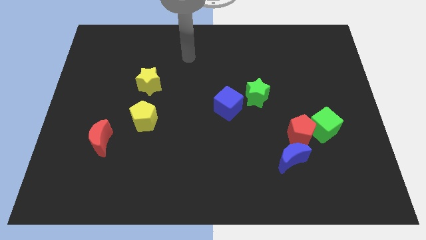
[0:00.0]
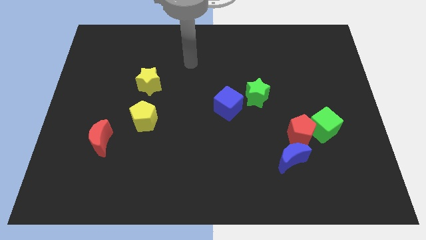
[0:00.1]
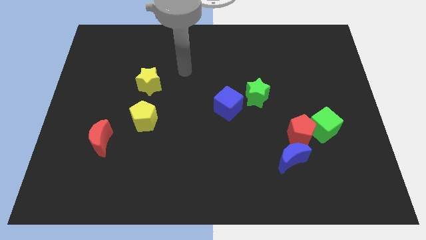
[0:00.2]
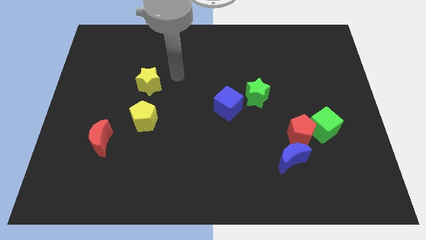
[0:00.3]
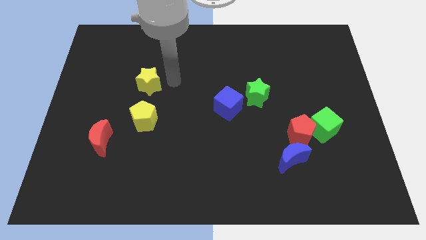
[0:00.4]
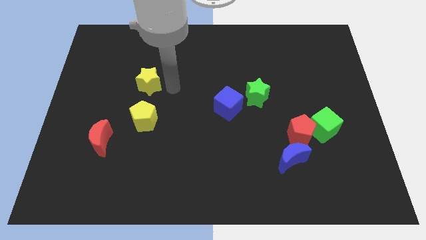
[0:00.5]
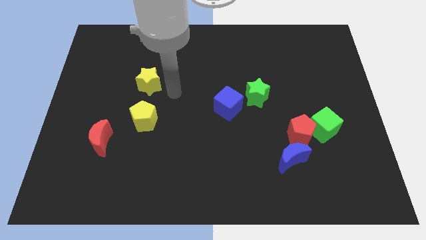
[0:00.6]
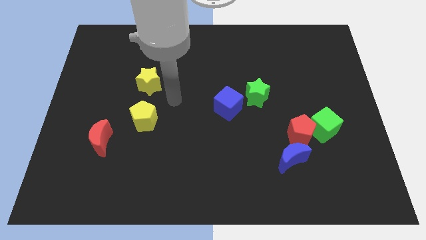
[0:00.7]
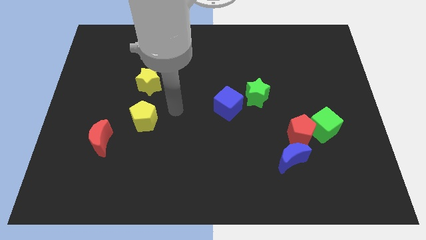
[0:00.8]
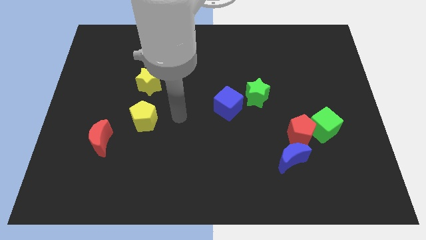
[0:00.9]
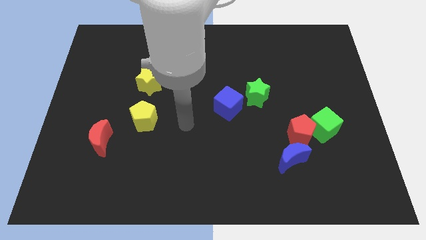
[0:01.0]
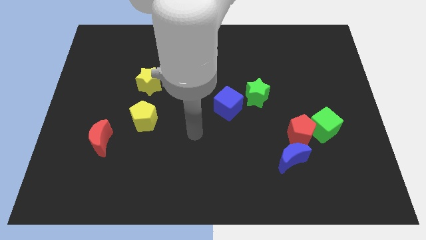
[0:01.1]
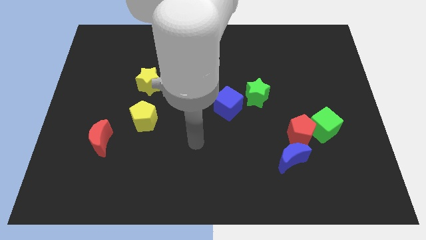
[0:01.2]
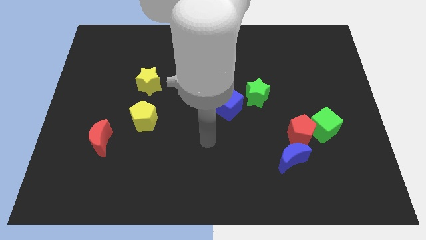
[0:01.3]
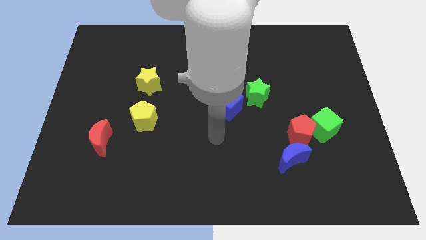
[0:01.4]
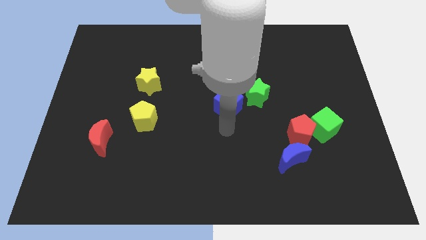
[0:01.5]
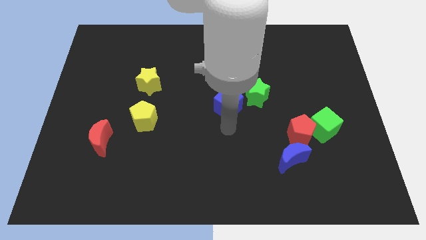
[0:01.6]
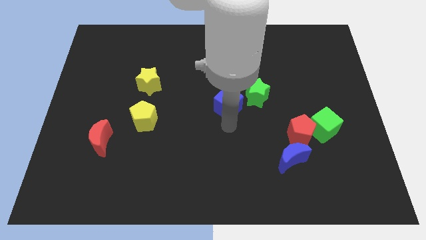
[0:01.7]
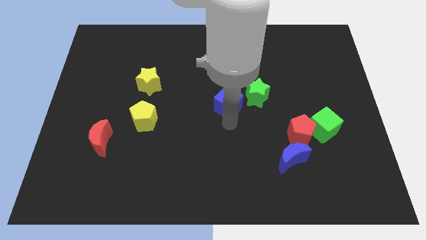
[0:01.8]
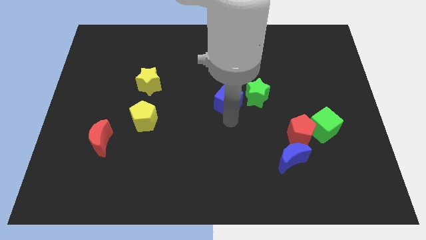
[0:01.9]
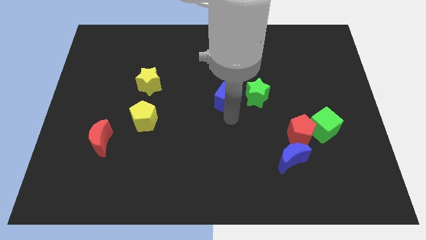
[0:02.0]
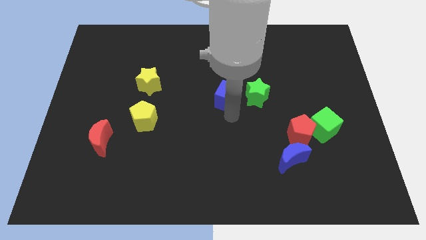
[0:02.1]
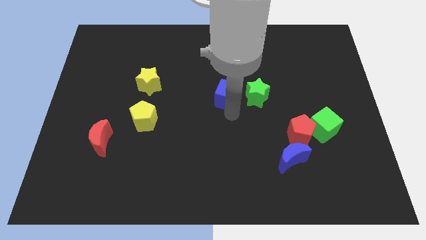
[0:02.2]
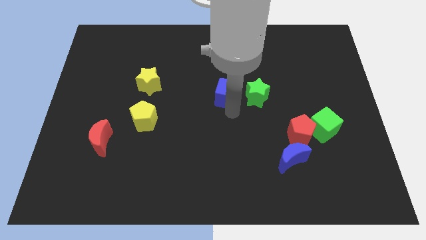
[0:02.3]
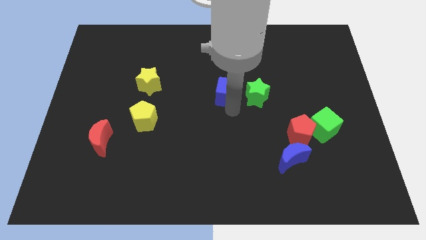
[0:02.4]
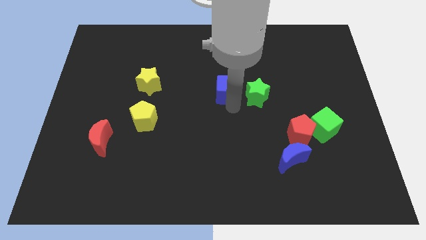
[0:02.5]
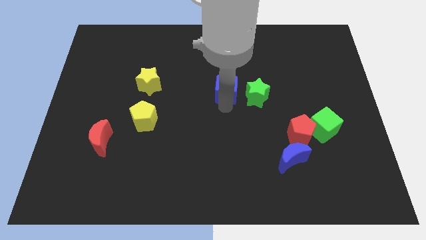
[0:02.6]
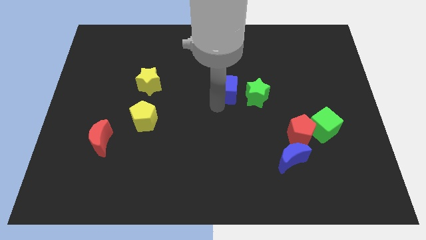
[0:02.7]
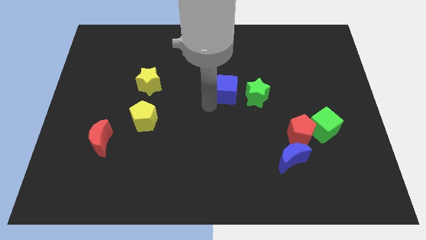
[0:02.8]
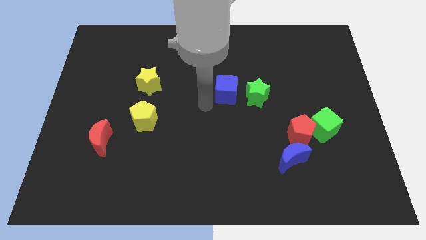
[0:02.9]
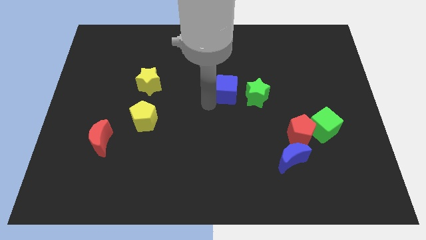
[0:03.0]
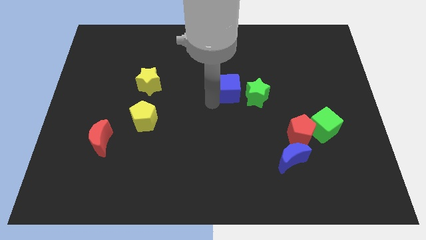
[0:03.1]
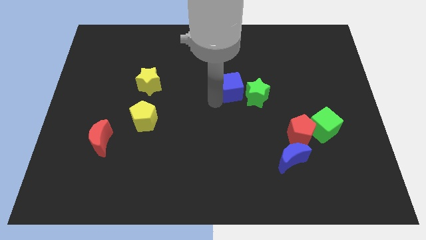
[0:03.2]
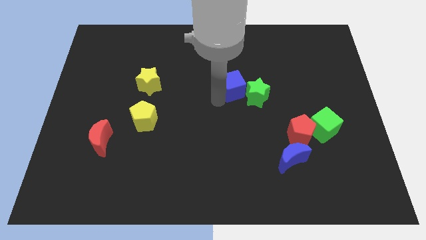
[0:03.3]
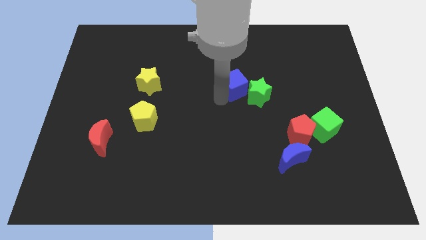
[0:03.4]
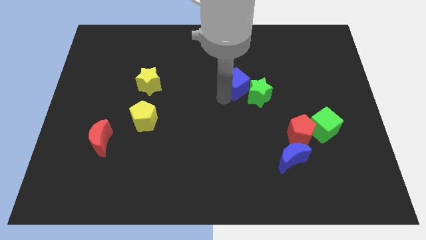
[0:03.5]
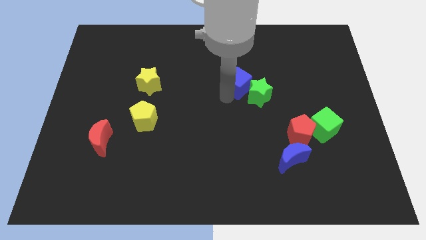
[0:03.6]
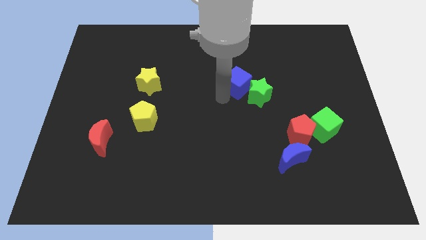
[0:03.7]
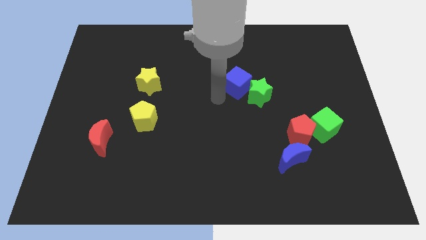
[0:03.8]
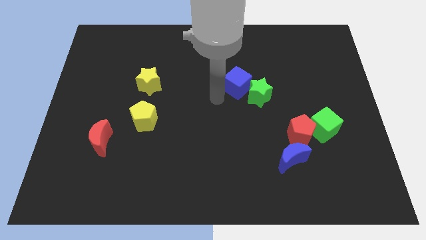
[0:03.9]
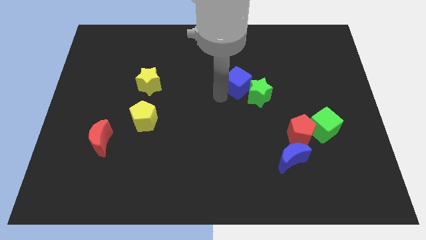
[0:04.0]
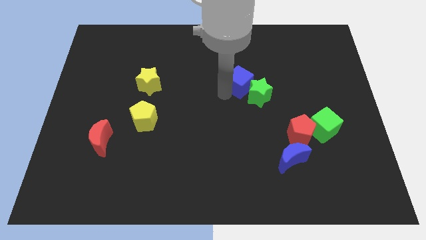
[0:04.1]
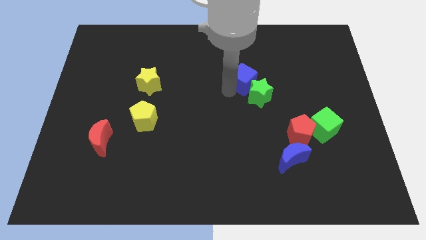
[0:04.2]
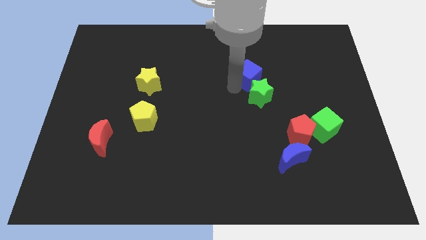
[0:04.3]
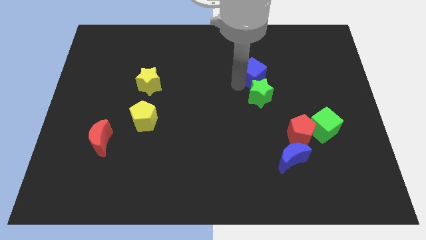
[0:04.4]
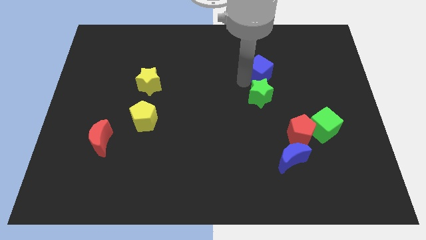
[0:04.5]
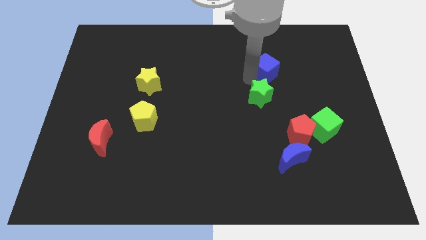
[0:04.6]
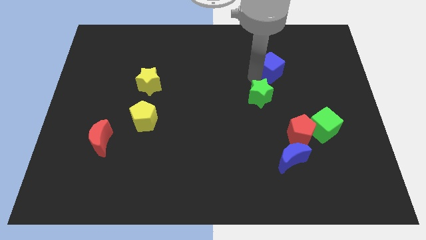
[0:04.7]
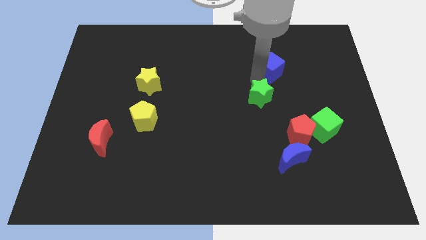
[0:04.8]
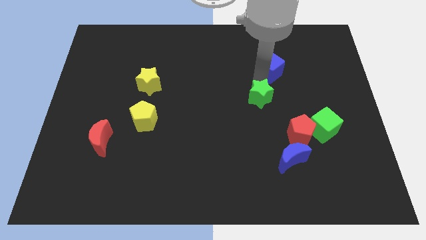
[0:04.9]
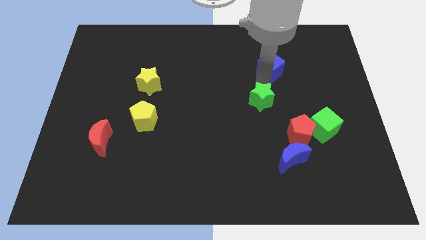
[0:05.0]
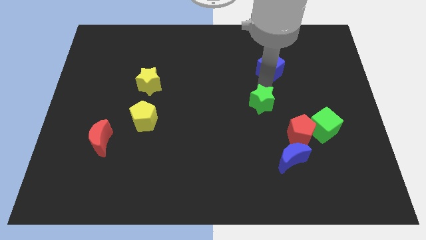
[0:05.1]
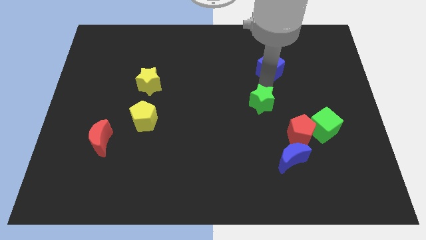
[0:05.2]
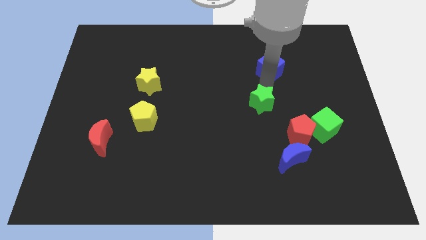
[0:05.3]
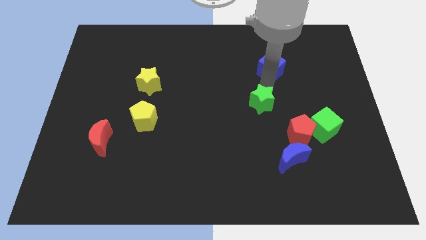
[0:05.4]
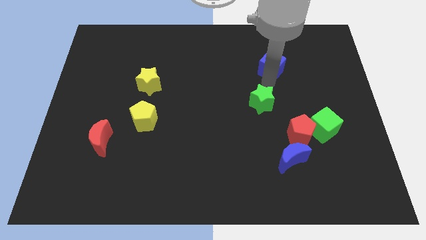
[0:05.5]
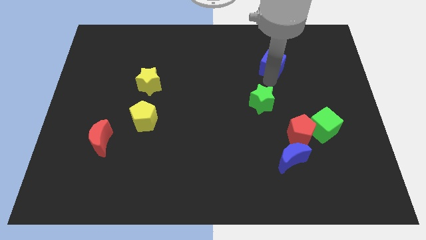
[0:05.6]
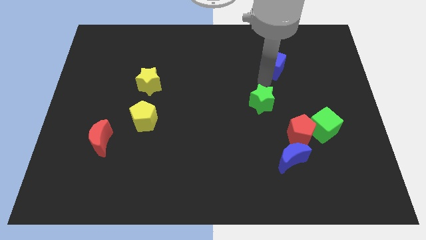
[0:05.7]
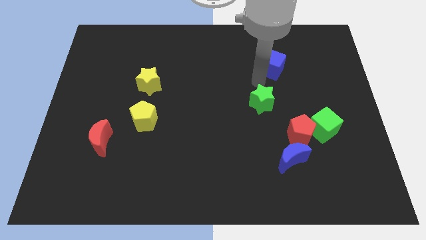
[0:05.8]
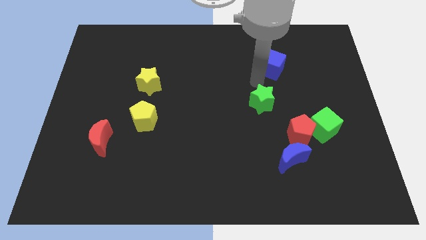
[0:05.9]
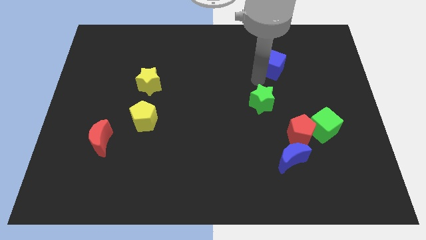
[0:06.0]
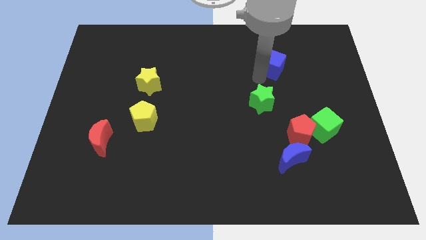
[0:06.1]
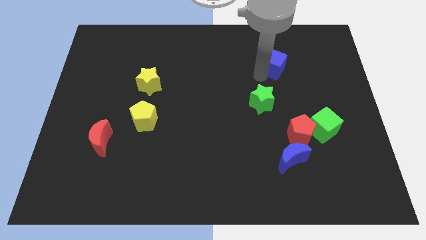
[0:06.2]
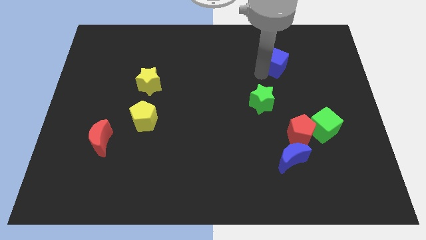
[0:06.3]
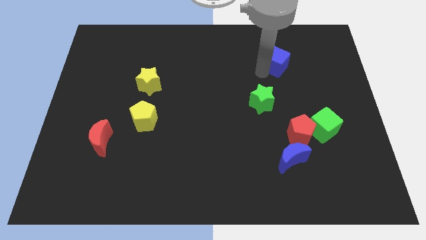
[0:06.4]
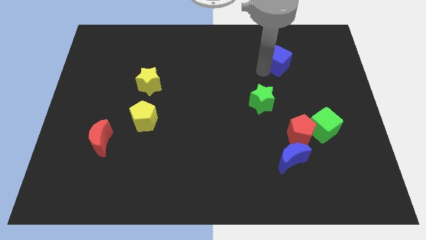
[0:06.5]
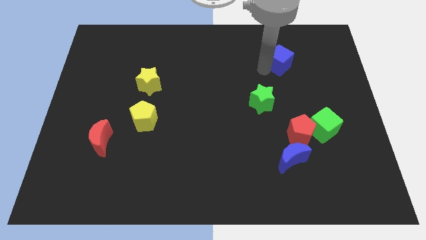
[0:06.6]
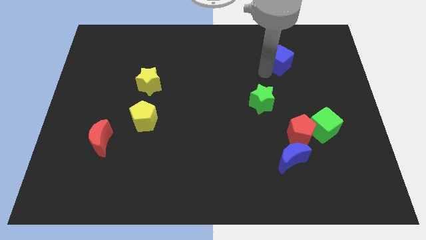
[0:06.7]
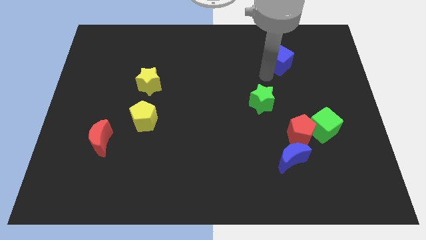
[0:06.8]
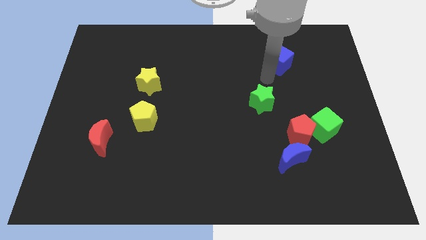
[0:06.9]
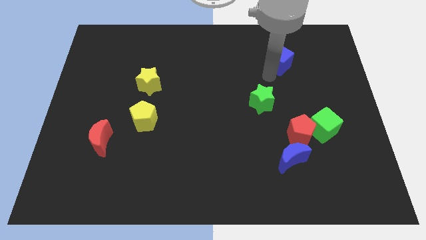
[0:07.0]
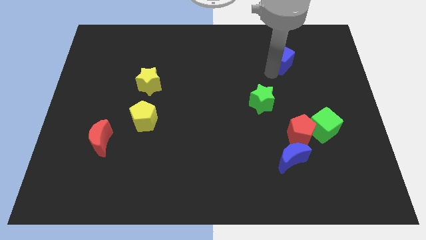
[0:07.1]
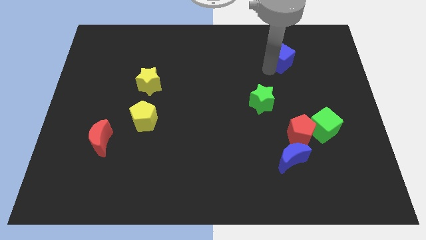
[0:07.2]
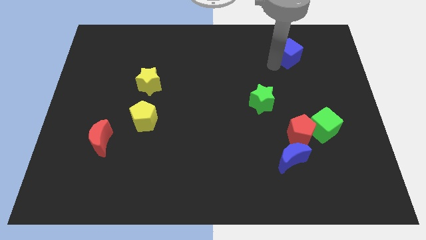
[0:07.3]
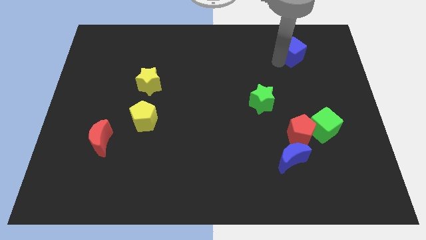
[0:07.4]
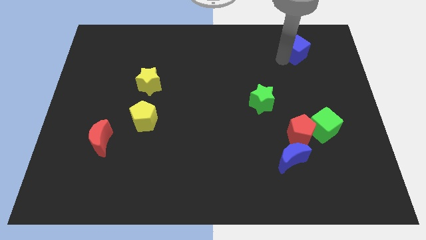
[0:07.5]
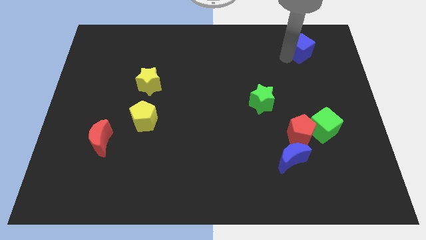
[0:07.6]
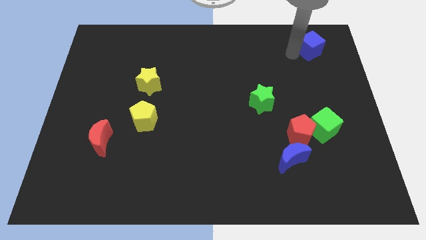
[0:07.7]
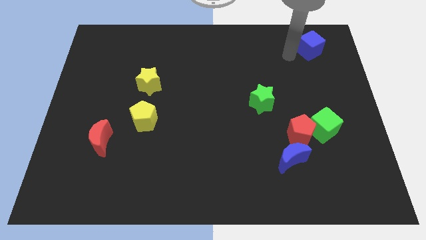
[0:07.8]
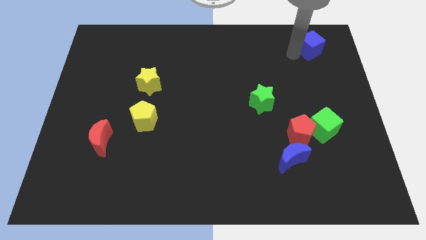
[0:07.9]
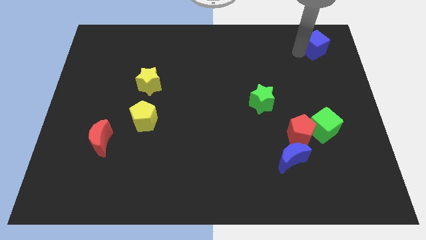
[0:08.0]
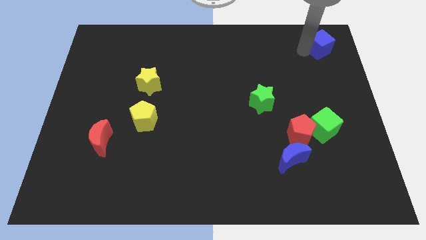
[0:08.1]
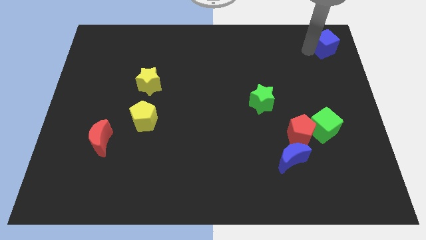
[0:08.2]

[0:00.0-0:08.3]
put the blue cube to the top right of the board
